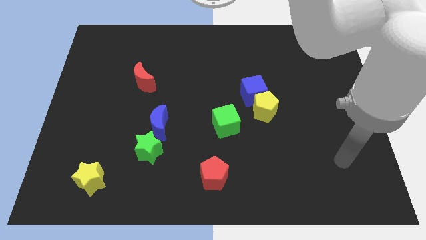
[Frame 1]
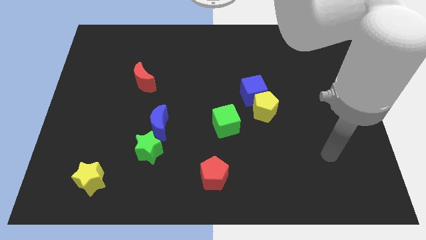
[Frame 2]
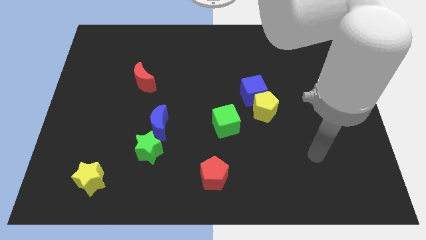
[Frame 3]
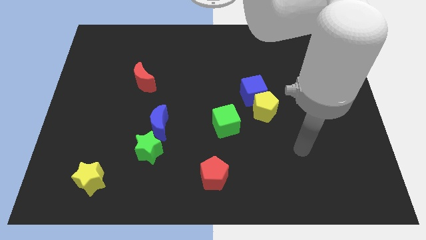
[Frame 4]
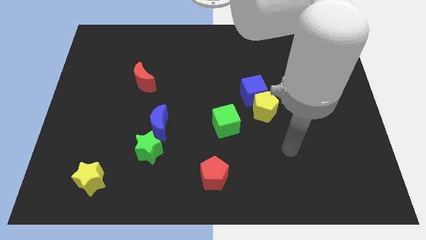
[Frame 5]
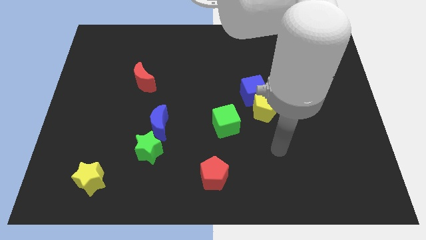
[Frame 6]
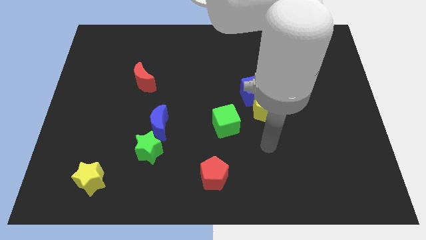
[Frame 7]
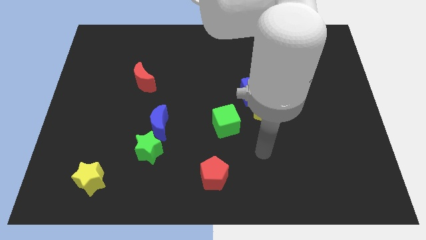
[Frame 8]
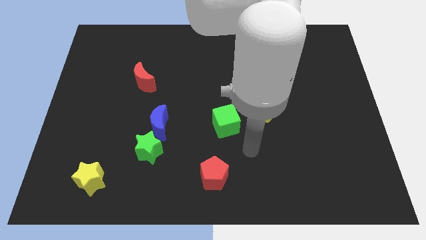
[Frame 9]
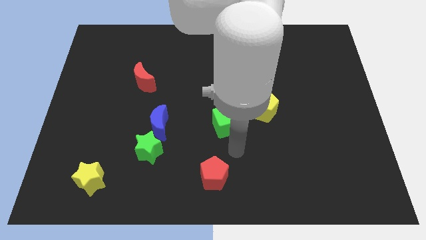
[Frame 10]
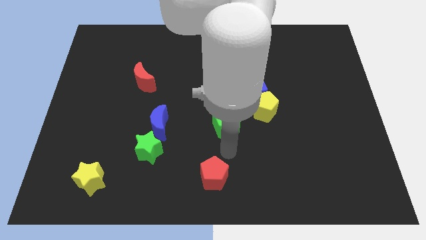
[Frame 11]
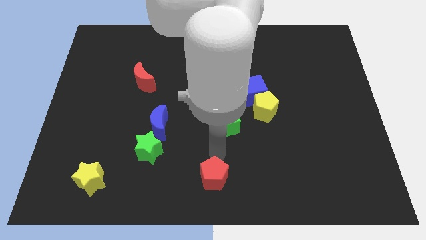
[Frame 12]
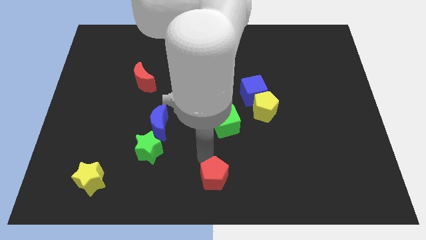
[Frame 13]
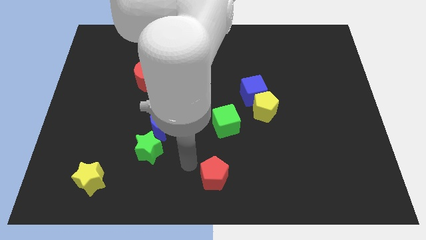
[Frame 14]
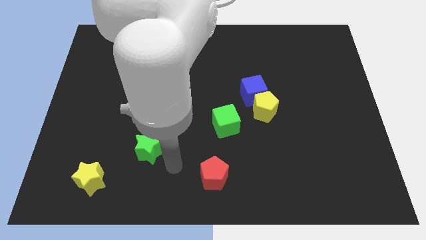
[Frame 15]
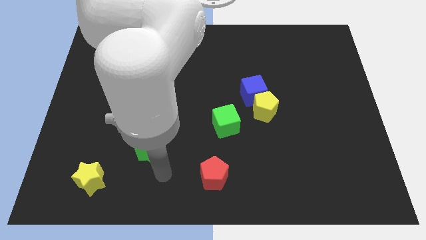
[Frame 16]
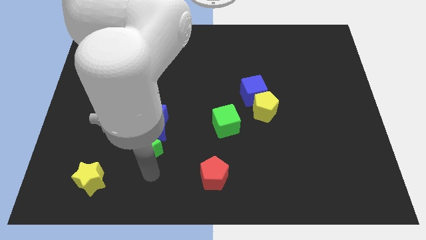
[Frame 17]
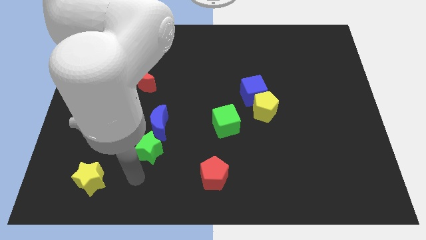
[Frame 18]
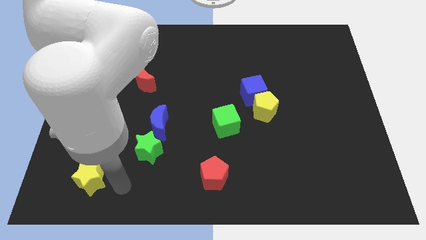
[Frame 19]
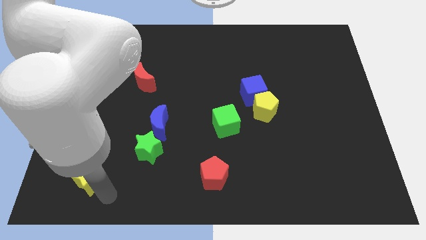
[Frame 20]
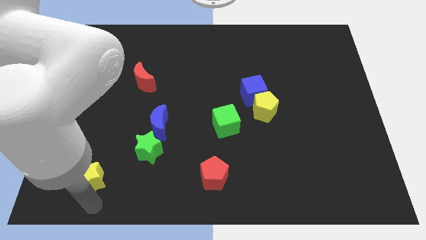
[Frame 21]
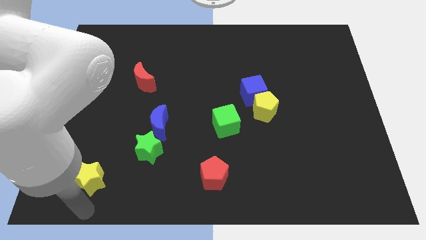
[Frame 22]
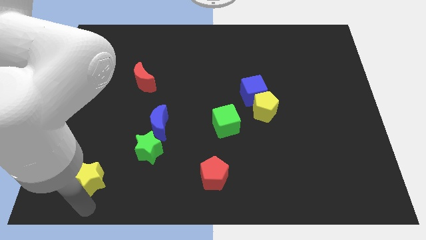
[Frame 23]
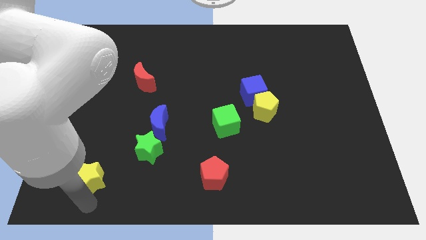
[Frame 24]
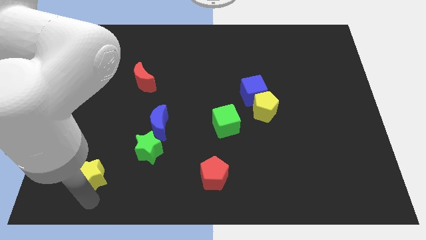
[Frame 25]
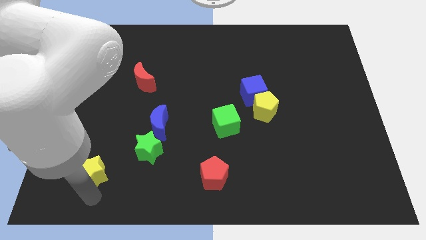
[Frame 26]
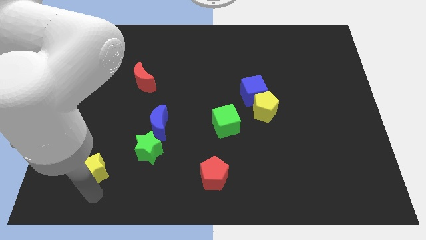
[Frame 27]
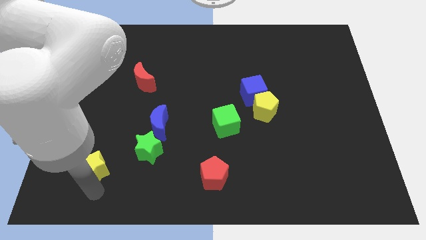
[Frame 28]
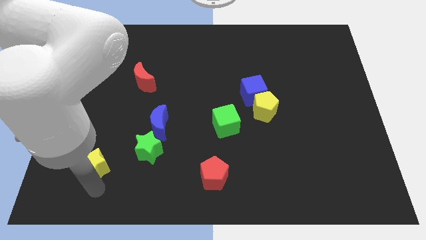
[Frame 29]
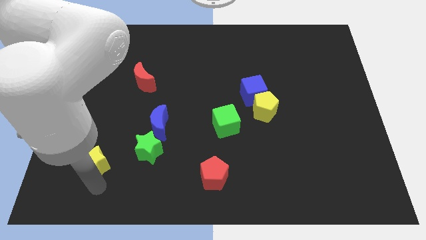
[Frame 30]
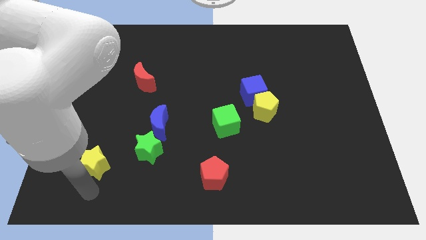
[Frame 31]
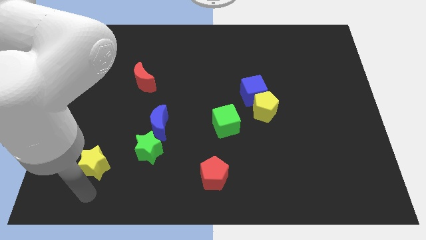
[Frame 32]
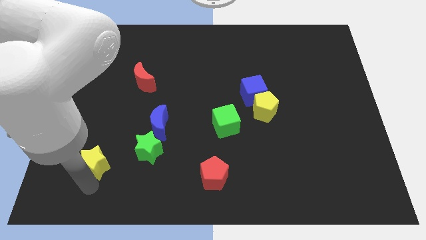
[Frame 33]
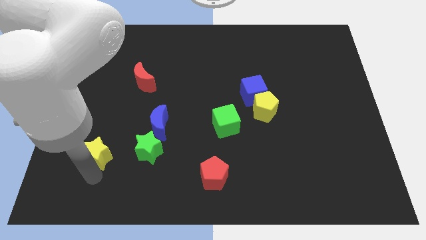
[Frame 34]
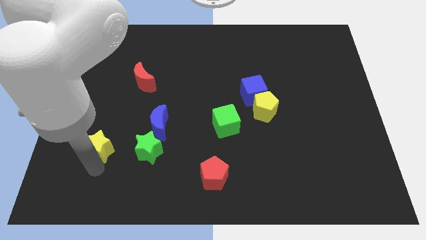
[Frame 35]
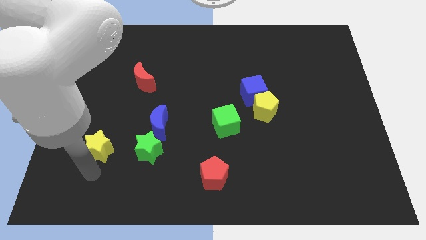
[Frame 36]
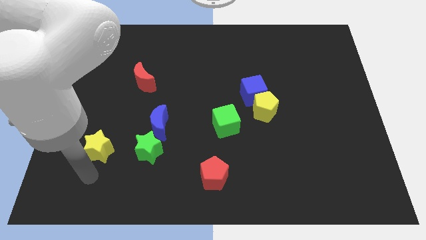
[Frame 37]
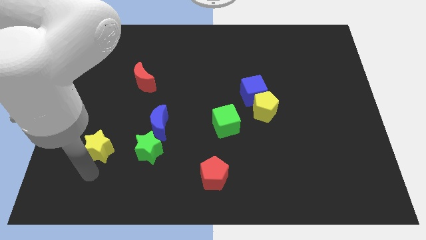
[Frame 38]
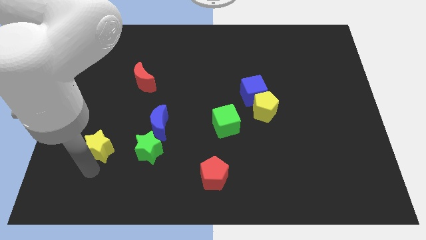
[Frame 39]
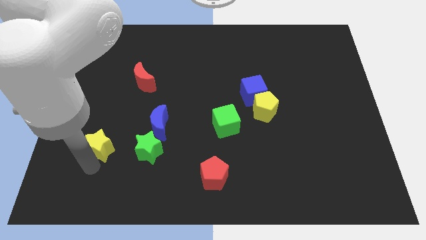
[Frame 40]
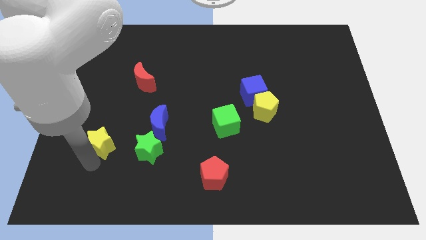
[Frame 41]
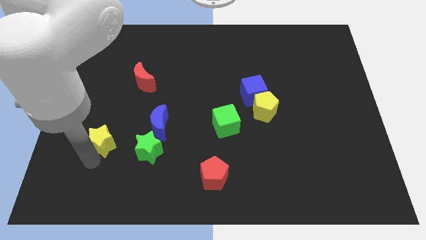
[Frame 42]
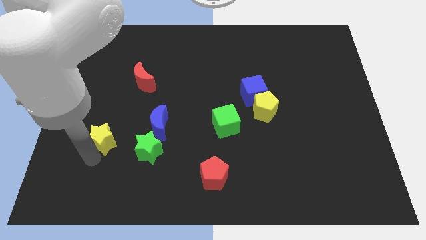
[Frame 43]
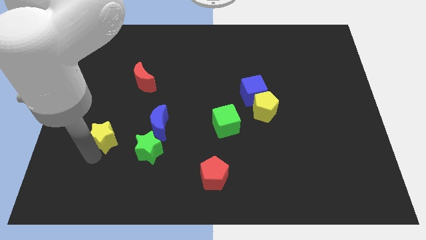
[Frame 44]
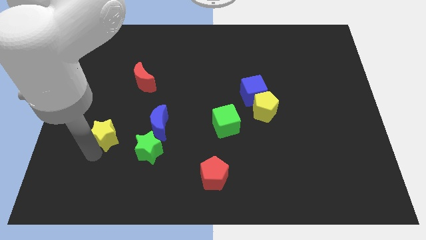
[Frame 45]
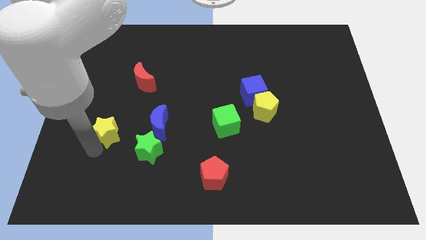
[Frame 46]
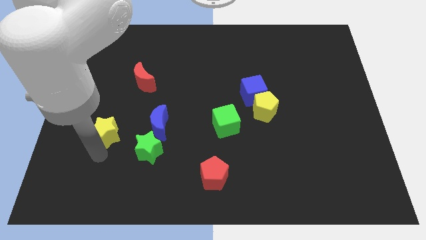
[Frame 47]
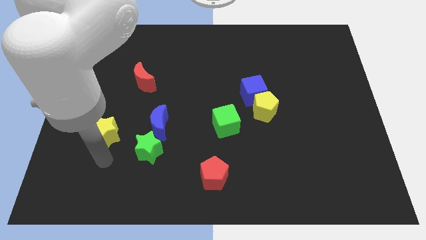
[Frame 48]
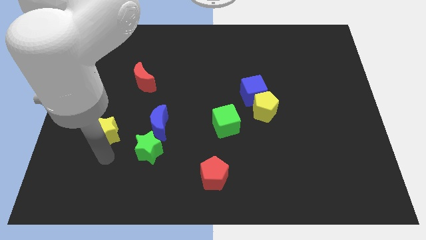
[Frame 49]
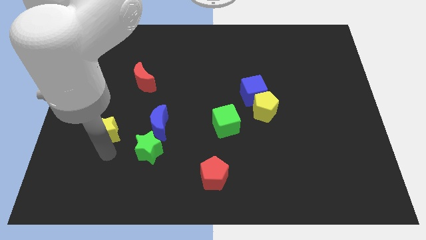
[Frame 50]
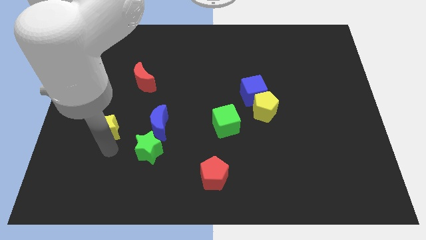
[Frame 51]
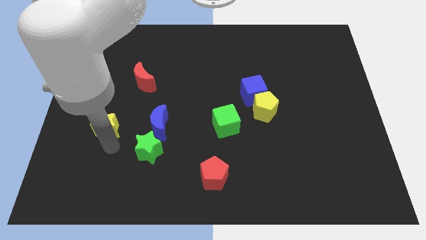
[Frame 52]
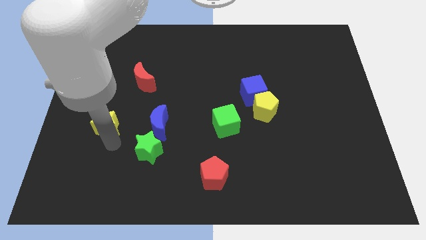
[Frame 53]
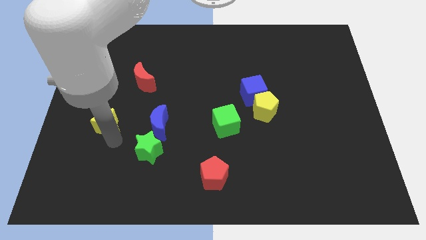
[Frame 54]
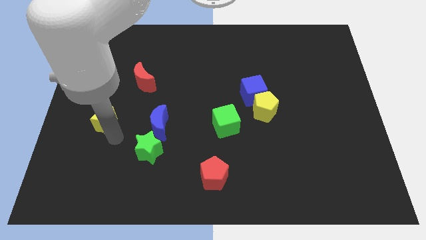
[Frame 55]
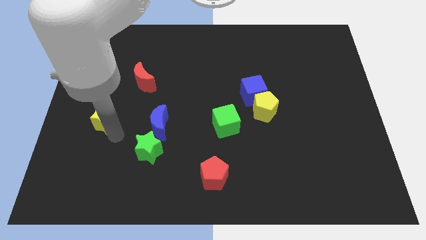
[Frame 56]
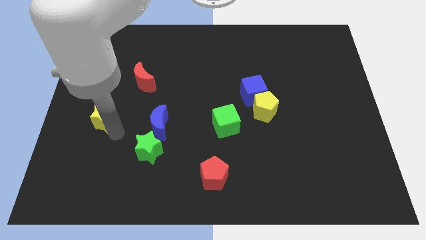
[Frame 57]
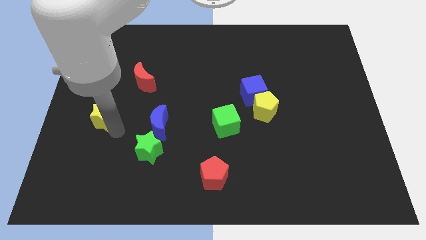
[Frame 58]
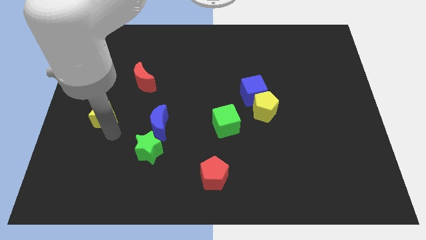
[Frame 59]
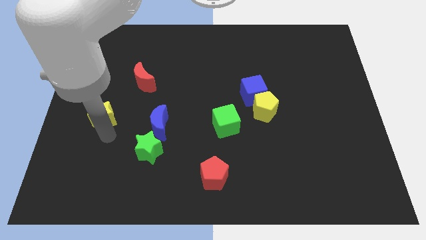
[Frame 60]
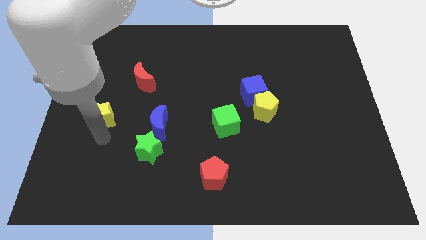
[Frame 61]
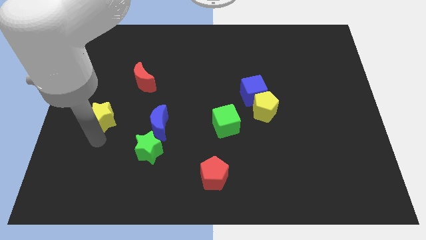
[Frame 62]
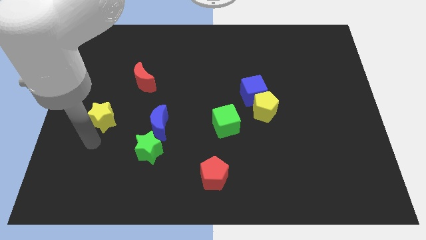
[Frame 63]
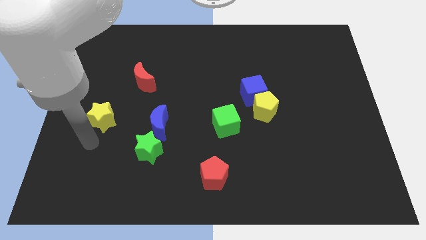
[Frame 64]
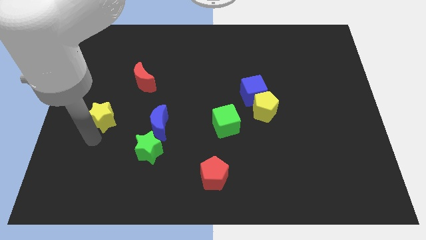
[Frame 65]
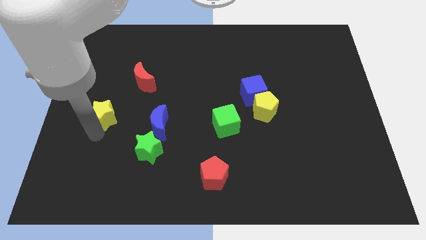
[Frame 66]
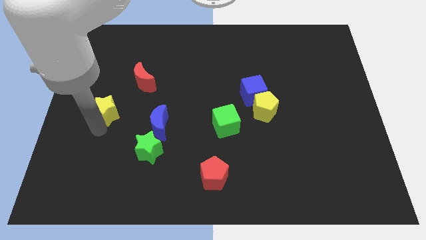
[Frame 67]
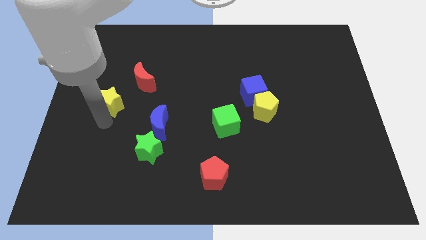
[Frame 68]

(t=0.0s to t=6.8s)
move the yellow star upwards

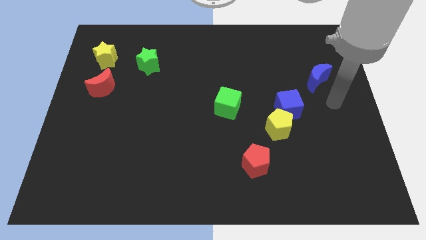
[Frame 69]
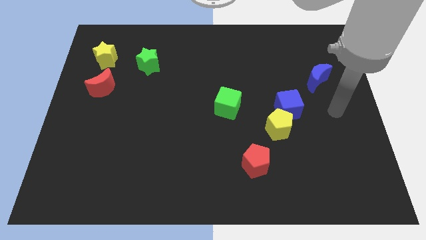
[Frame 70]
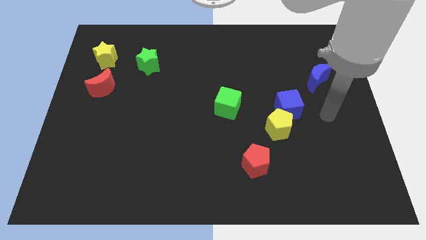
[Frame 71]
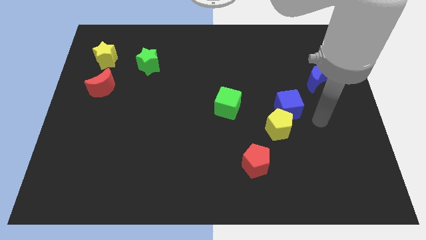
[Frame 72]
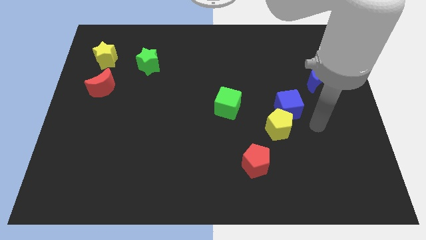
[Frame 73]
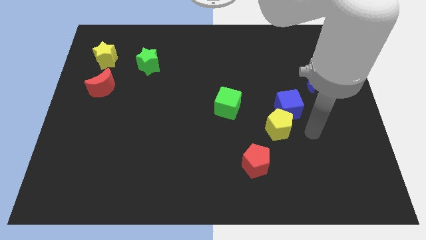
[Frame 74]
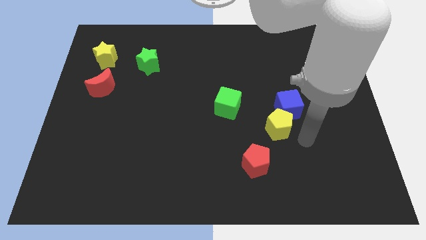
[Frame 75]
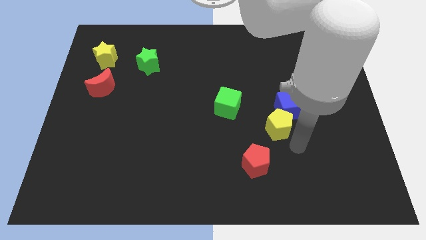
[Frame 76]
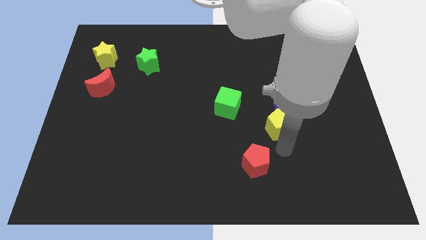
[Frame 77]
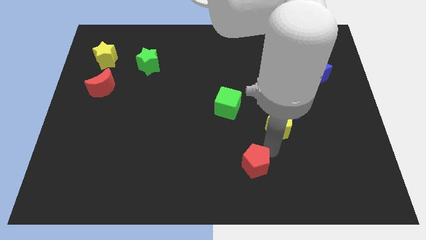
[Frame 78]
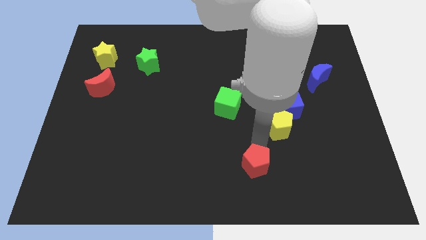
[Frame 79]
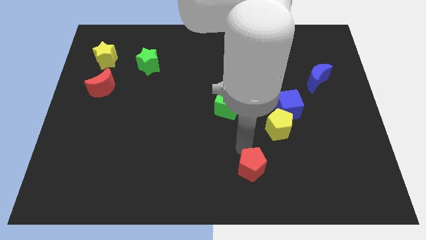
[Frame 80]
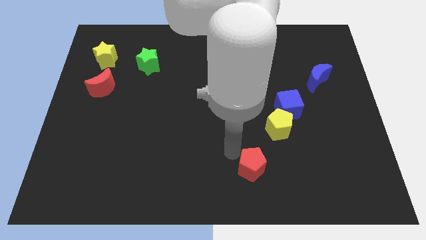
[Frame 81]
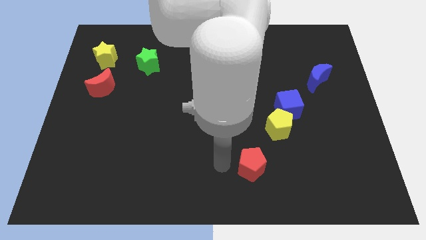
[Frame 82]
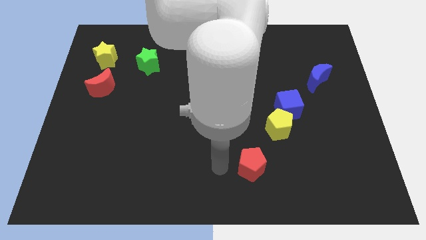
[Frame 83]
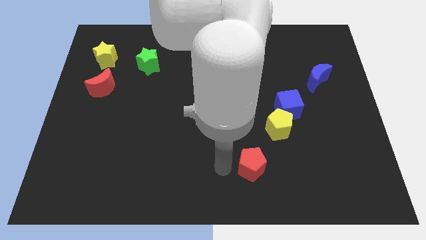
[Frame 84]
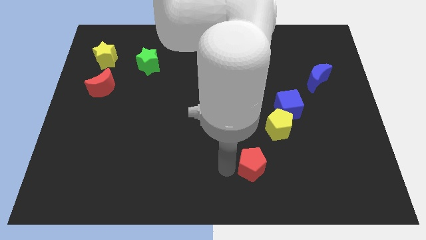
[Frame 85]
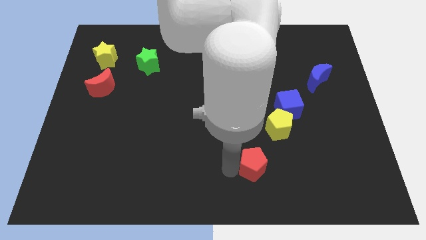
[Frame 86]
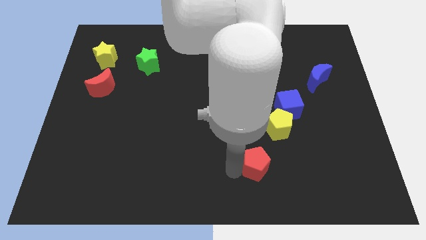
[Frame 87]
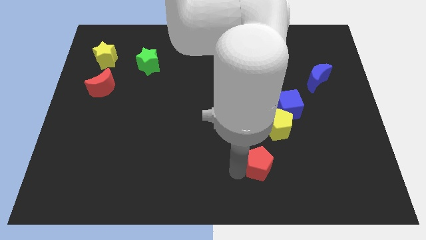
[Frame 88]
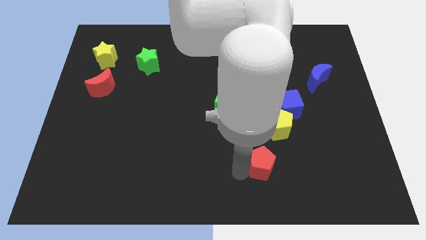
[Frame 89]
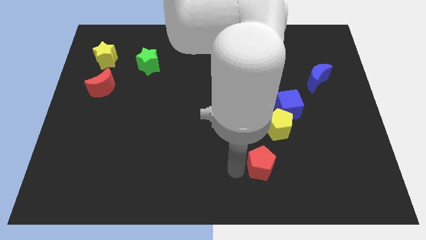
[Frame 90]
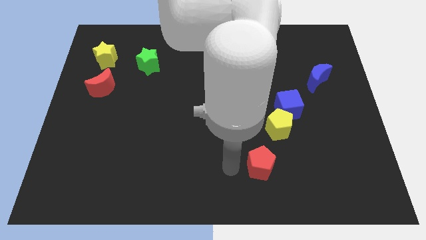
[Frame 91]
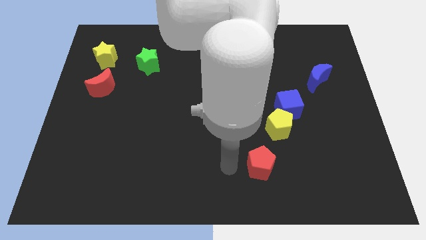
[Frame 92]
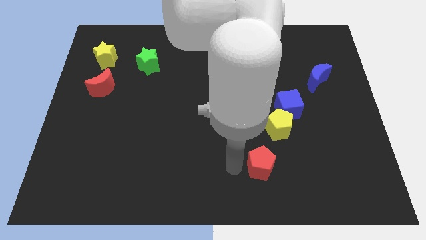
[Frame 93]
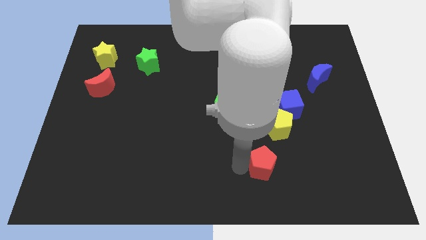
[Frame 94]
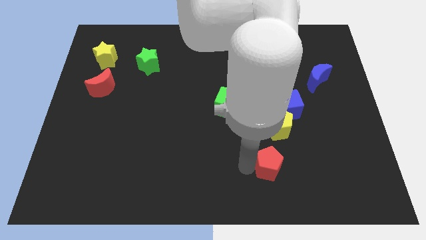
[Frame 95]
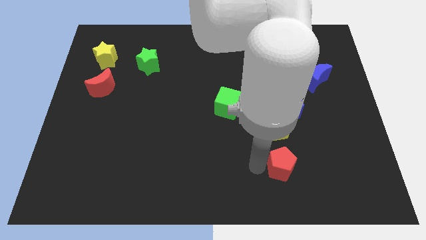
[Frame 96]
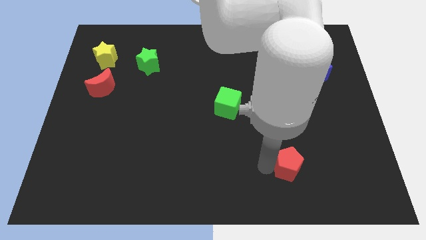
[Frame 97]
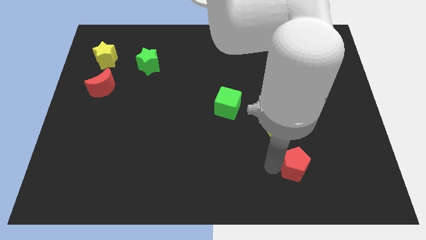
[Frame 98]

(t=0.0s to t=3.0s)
push the red pentagon right a little
